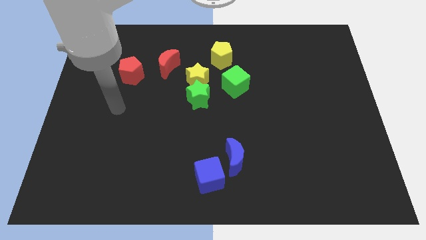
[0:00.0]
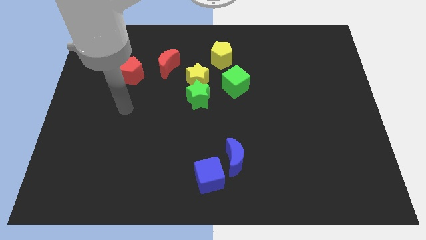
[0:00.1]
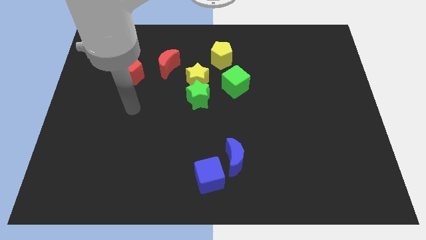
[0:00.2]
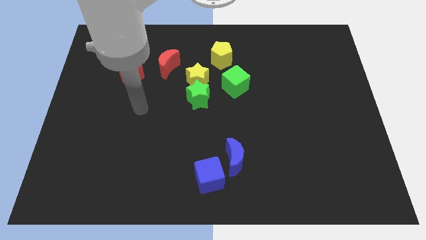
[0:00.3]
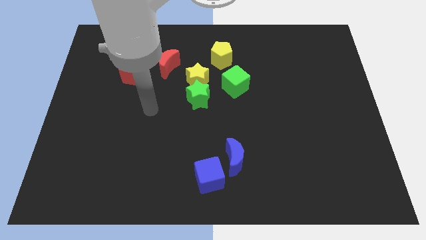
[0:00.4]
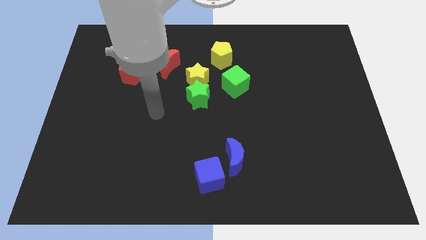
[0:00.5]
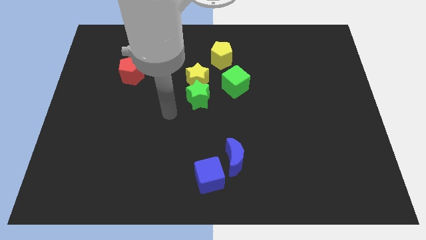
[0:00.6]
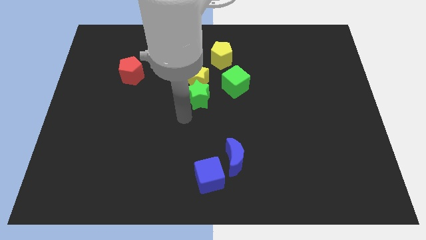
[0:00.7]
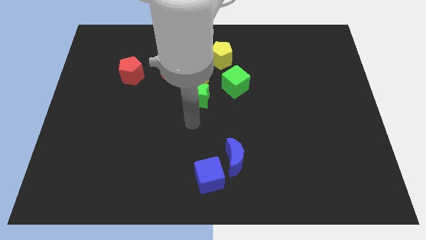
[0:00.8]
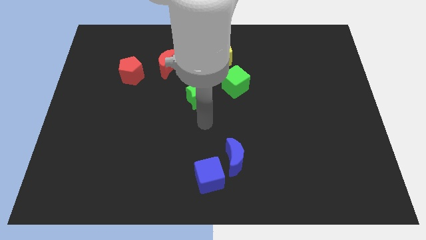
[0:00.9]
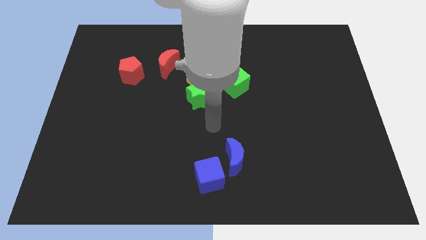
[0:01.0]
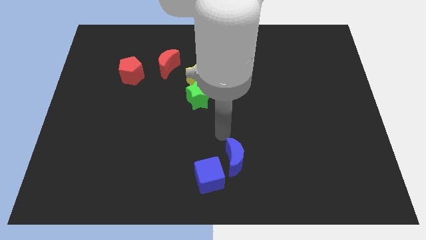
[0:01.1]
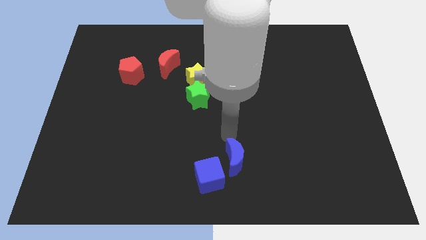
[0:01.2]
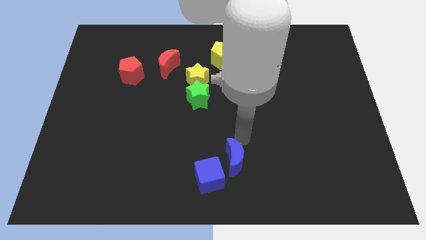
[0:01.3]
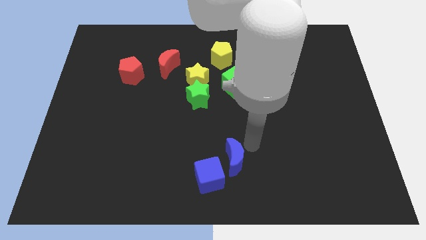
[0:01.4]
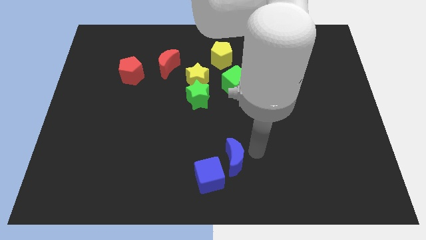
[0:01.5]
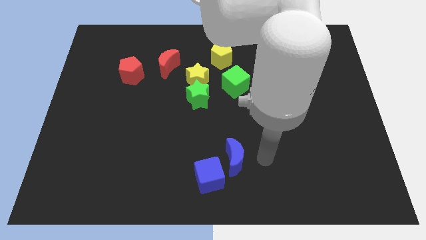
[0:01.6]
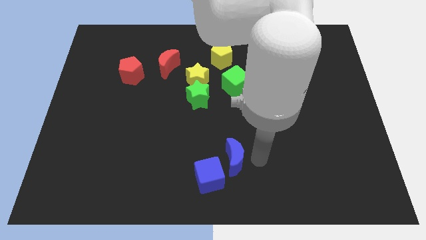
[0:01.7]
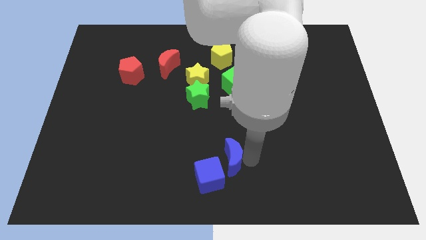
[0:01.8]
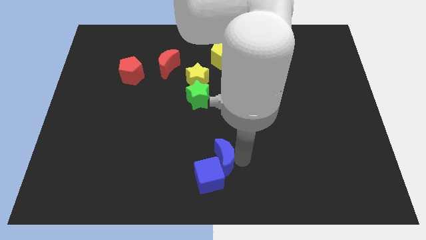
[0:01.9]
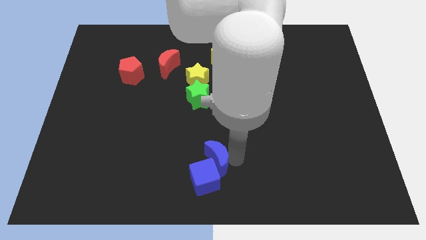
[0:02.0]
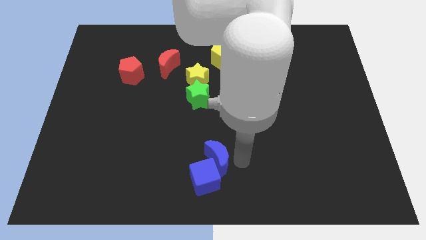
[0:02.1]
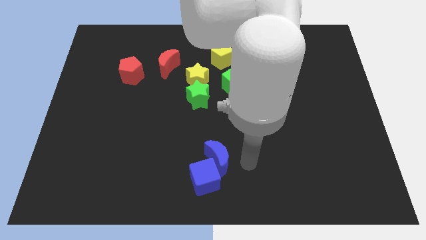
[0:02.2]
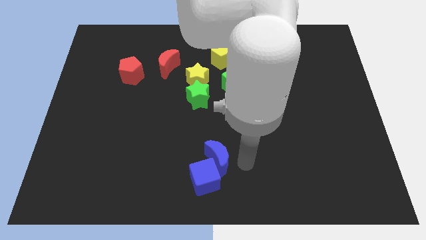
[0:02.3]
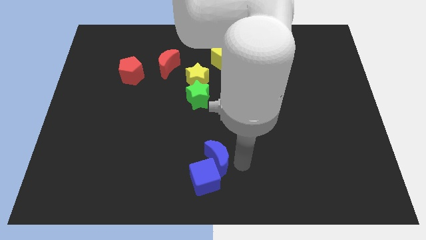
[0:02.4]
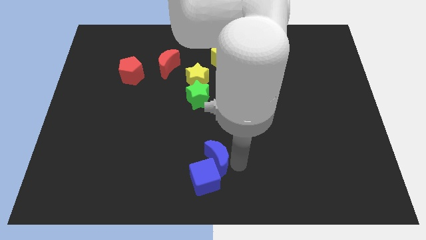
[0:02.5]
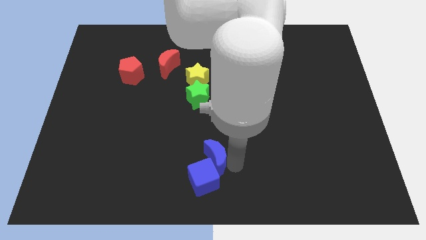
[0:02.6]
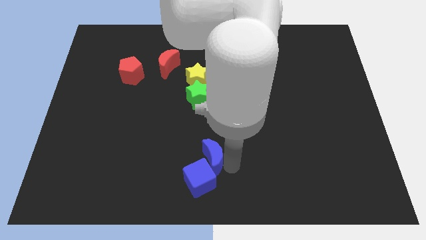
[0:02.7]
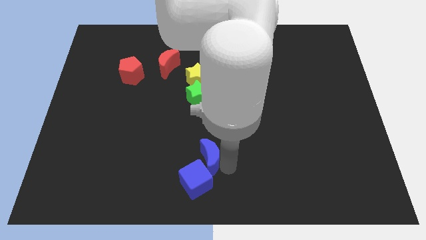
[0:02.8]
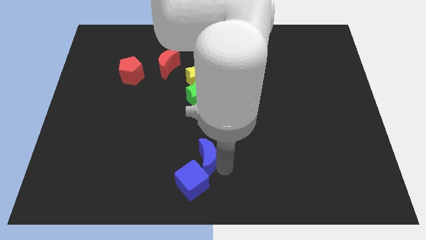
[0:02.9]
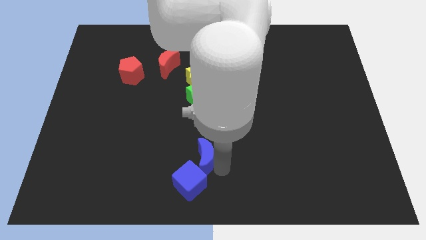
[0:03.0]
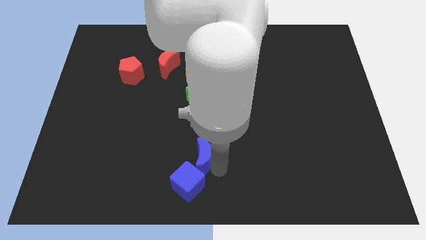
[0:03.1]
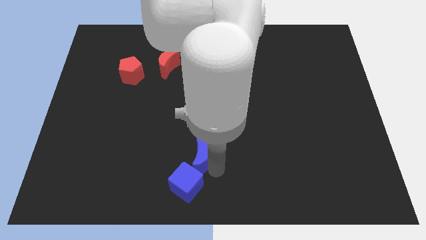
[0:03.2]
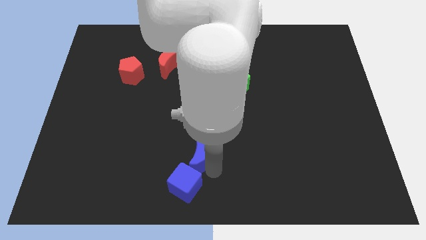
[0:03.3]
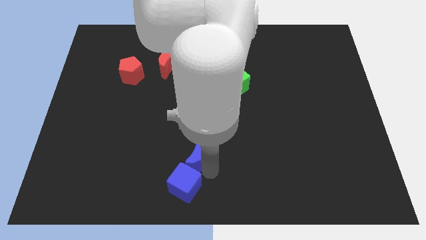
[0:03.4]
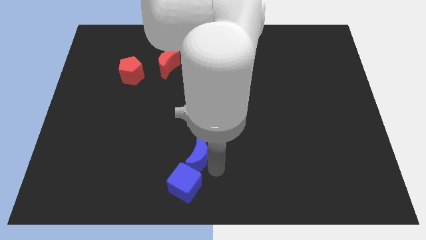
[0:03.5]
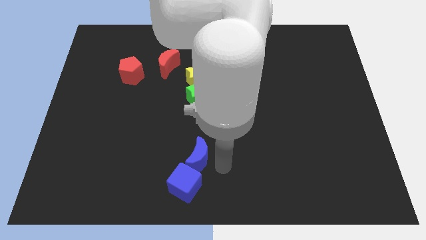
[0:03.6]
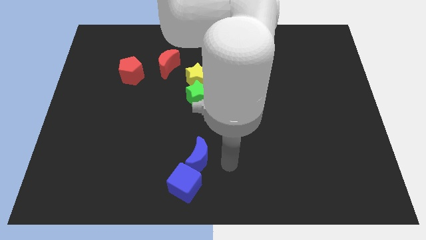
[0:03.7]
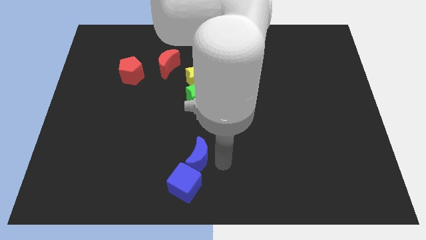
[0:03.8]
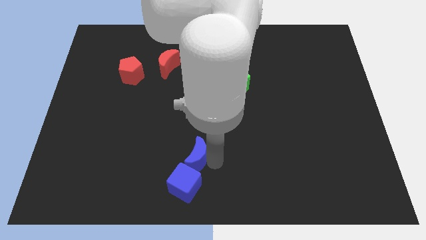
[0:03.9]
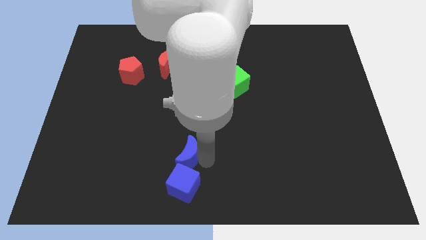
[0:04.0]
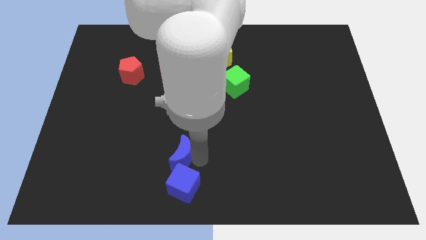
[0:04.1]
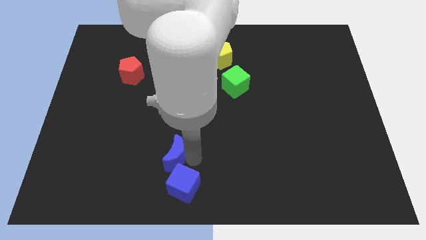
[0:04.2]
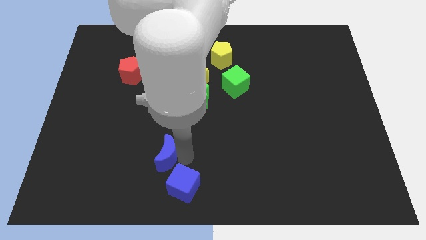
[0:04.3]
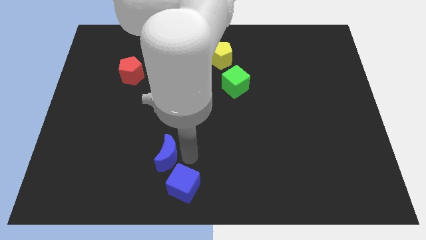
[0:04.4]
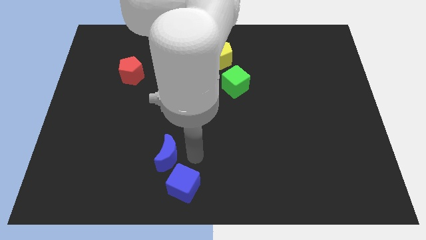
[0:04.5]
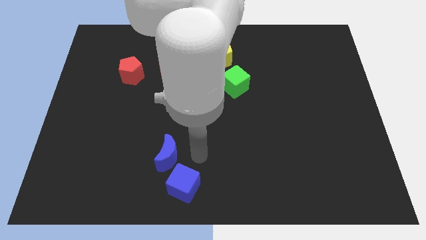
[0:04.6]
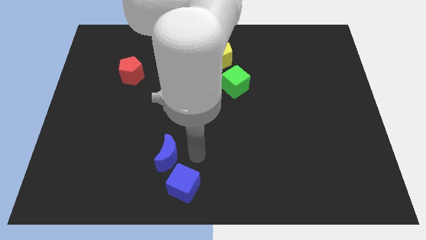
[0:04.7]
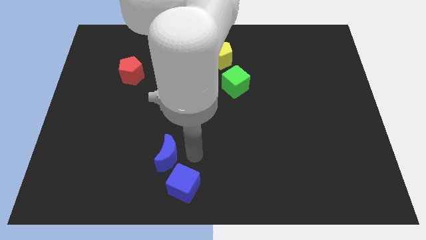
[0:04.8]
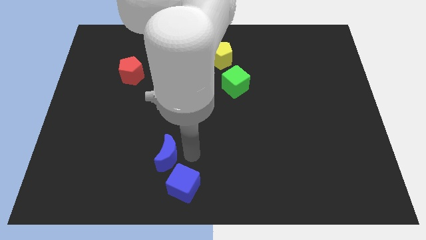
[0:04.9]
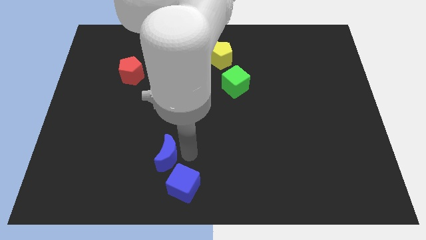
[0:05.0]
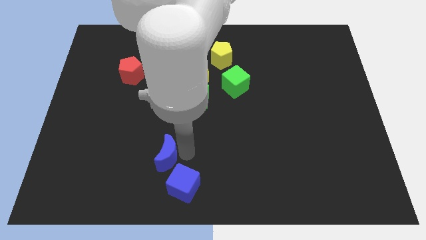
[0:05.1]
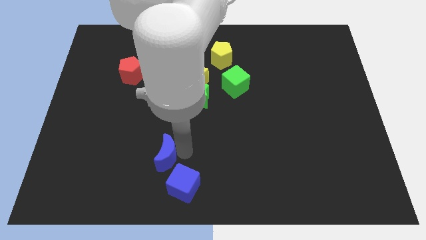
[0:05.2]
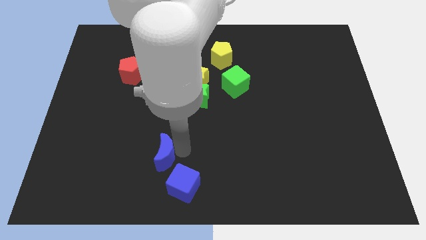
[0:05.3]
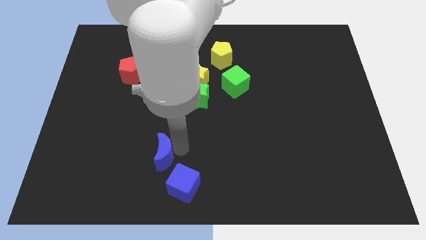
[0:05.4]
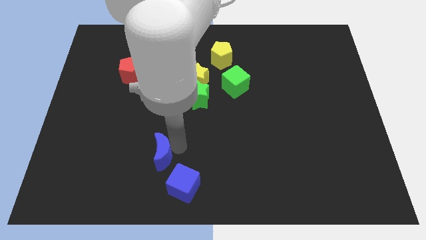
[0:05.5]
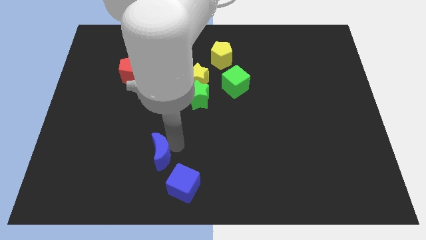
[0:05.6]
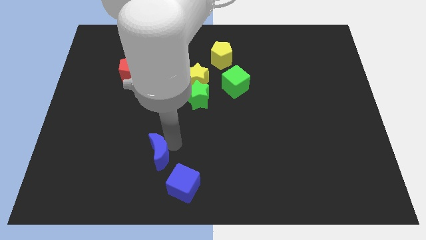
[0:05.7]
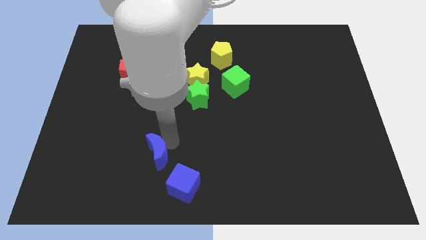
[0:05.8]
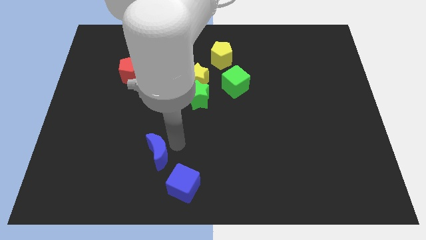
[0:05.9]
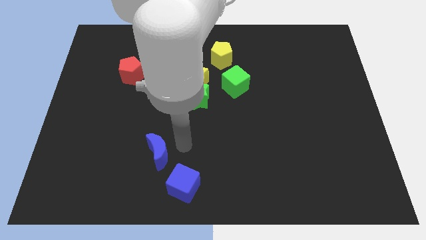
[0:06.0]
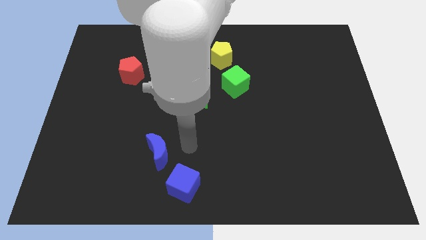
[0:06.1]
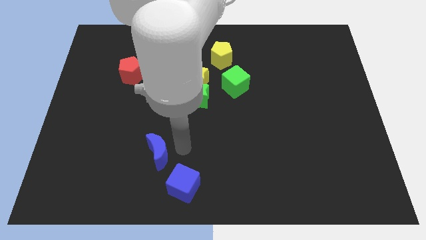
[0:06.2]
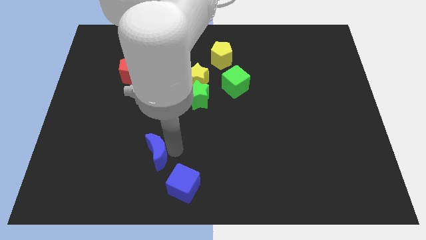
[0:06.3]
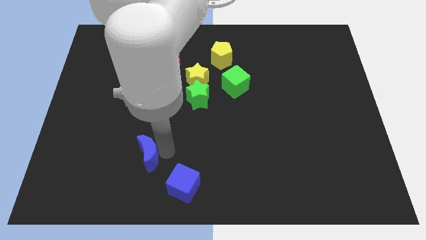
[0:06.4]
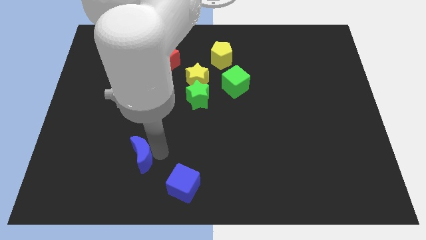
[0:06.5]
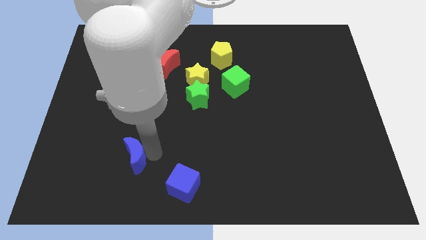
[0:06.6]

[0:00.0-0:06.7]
move the blue moon to the left

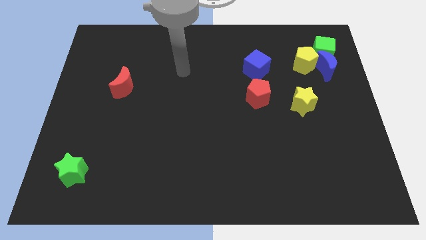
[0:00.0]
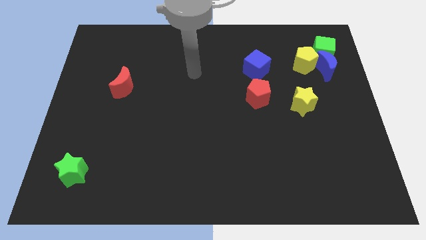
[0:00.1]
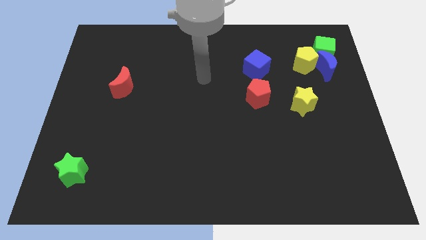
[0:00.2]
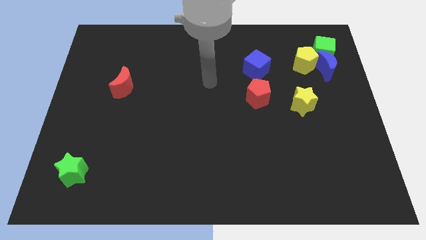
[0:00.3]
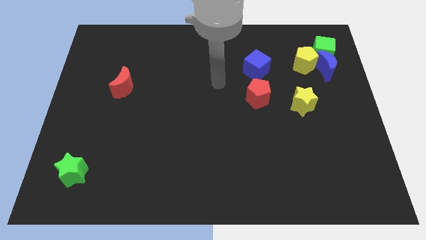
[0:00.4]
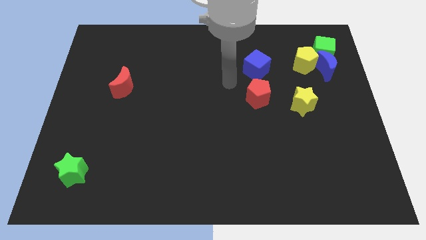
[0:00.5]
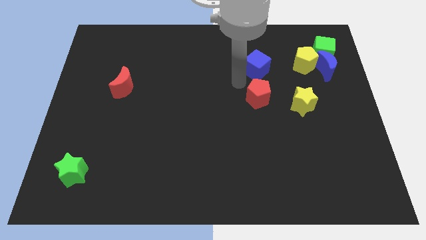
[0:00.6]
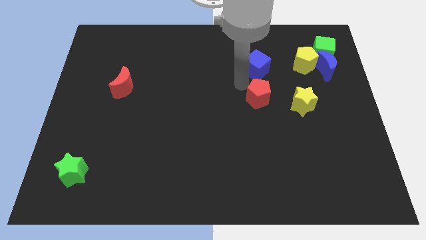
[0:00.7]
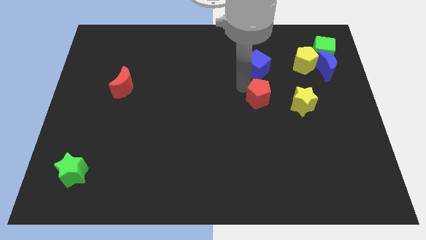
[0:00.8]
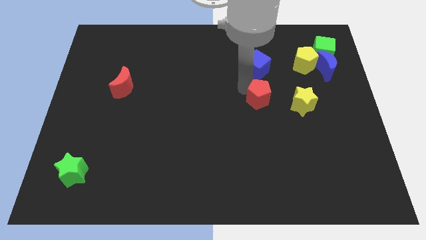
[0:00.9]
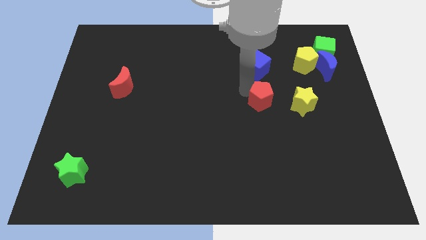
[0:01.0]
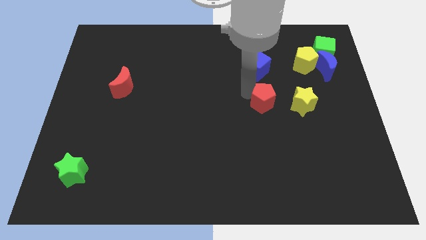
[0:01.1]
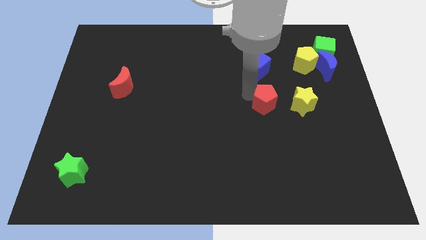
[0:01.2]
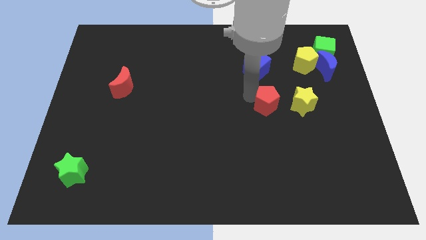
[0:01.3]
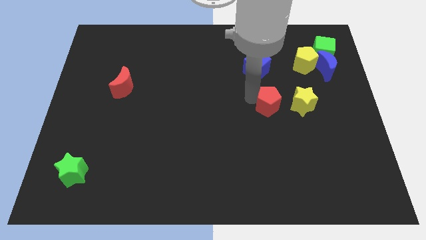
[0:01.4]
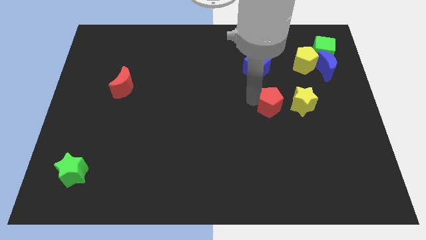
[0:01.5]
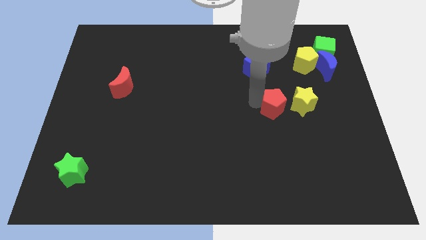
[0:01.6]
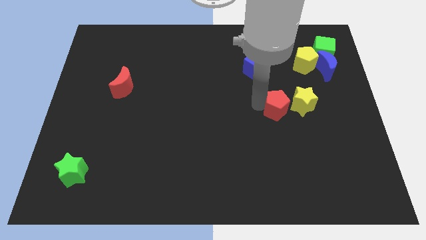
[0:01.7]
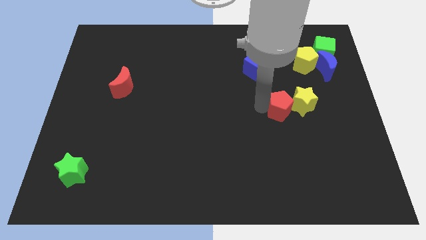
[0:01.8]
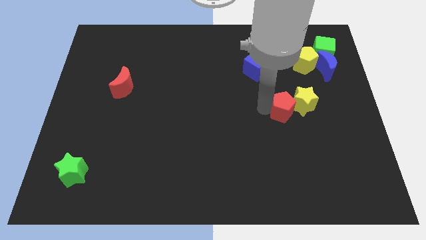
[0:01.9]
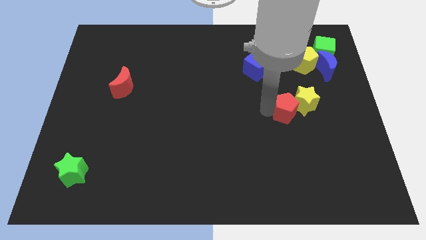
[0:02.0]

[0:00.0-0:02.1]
push the red pentagon diagonally down and to the right a bit
